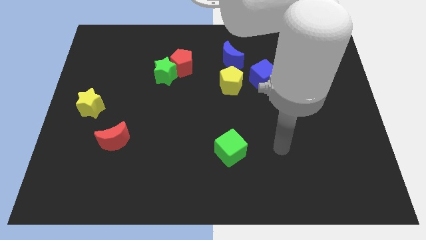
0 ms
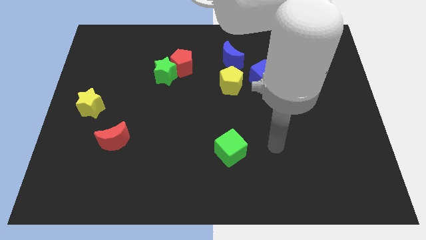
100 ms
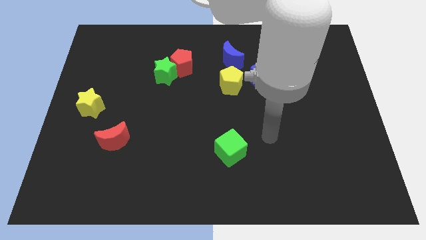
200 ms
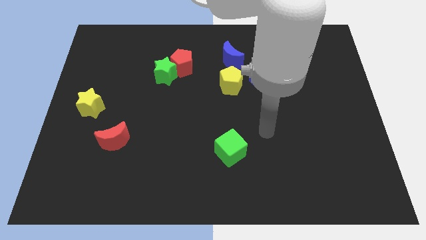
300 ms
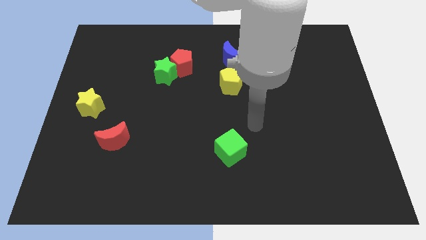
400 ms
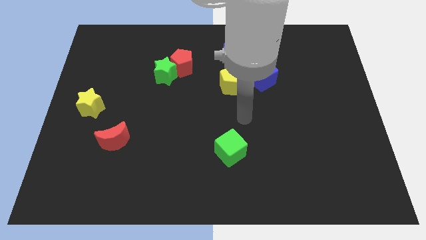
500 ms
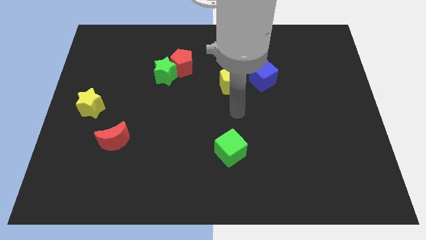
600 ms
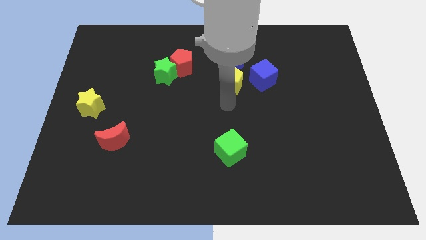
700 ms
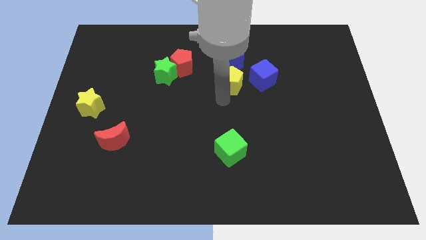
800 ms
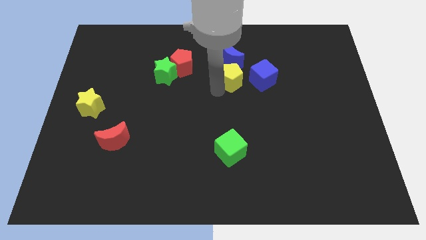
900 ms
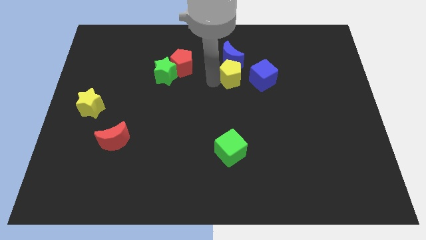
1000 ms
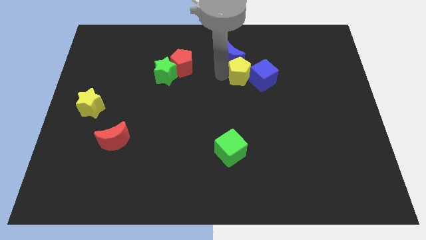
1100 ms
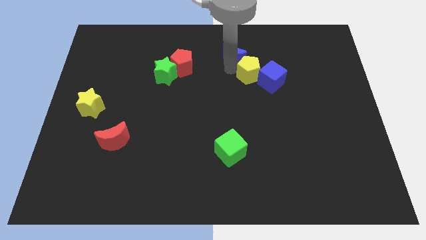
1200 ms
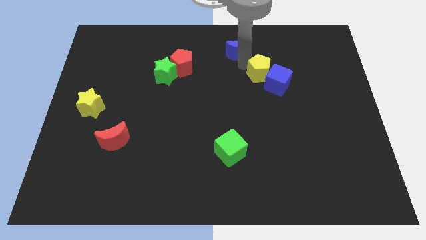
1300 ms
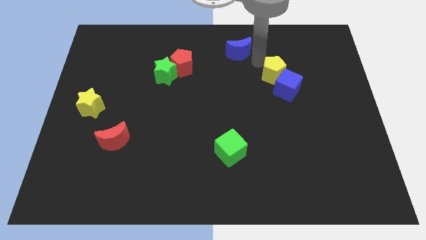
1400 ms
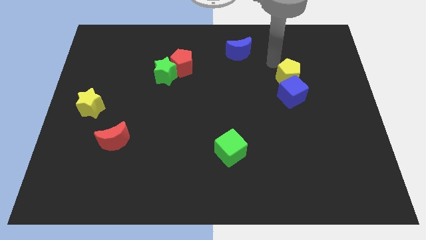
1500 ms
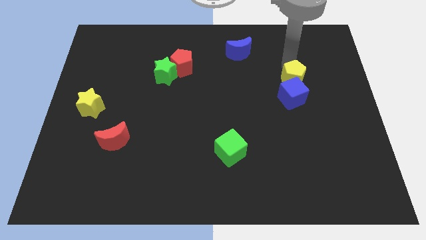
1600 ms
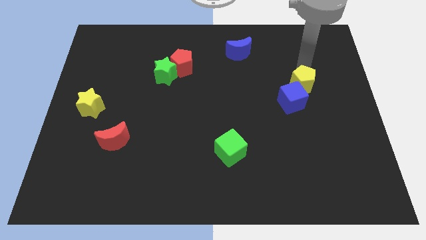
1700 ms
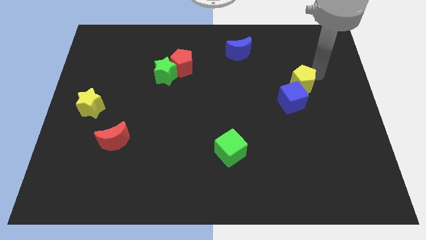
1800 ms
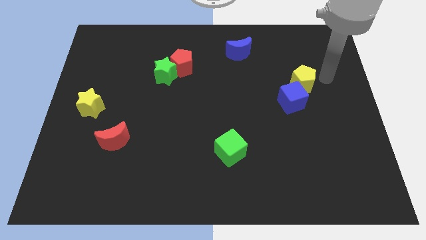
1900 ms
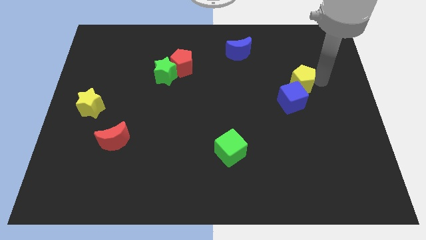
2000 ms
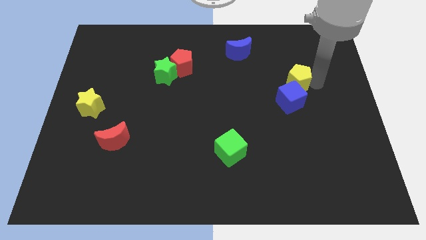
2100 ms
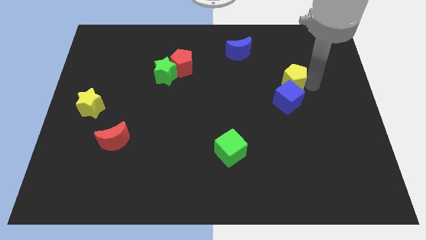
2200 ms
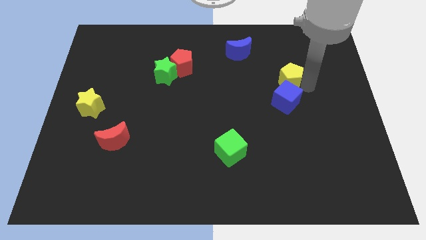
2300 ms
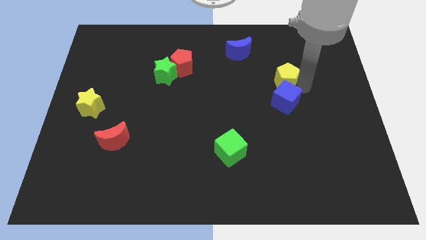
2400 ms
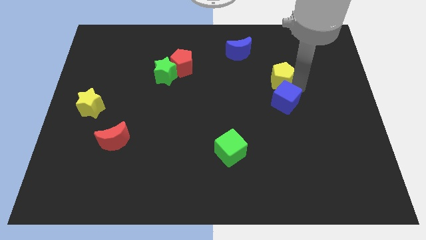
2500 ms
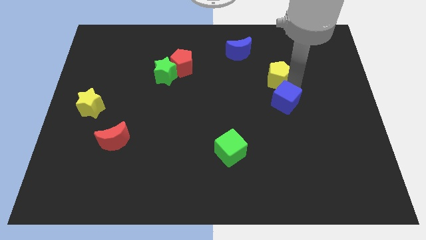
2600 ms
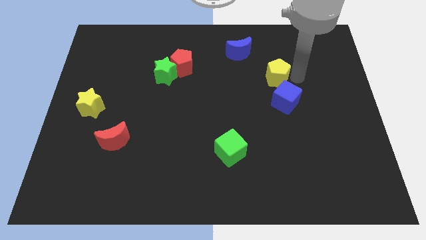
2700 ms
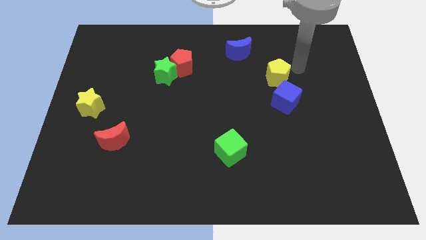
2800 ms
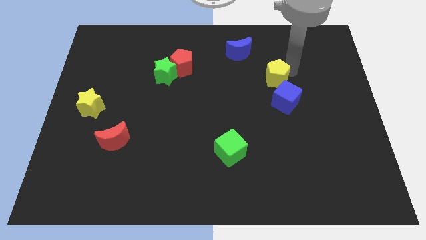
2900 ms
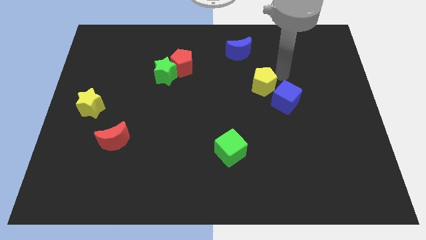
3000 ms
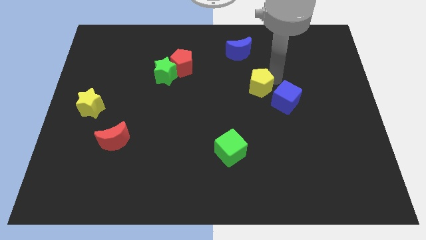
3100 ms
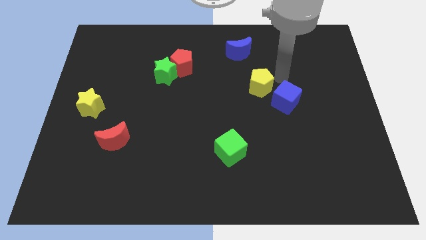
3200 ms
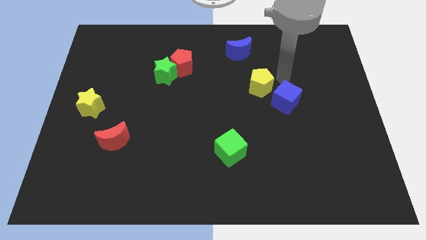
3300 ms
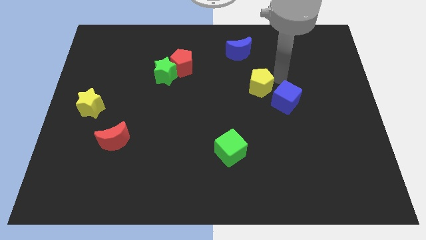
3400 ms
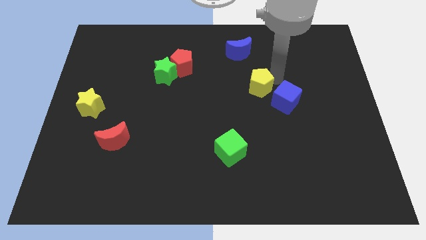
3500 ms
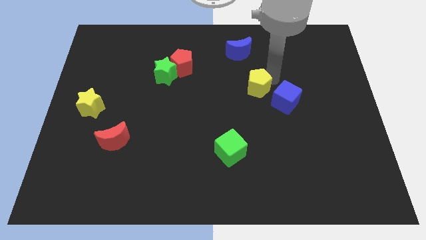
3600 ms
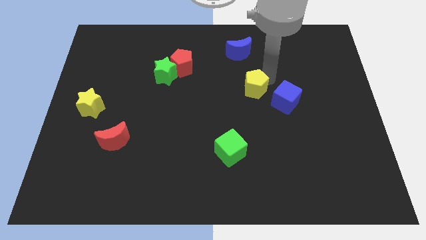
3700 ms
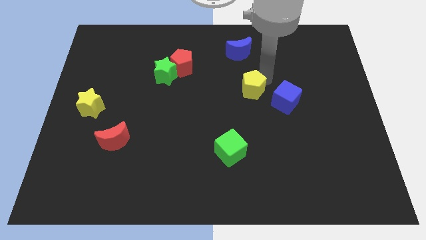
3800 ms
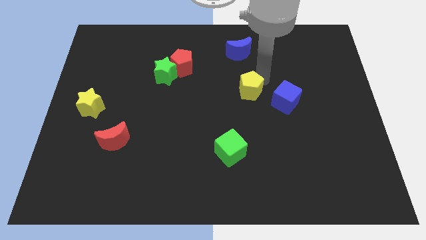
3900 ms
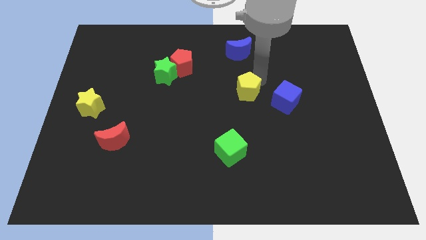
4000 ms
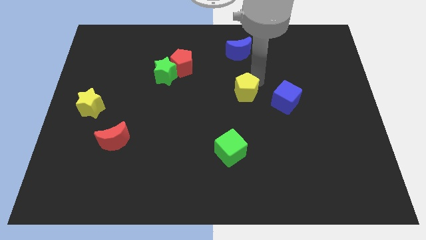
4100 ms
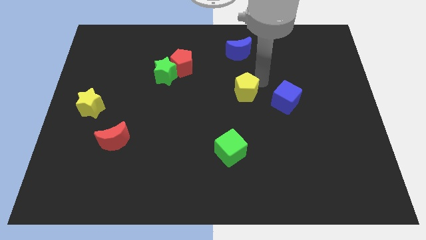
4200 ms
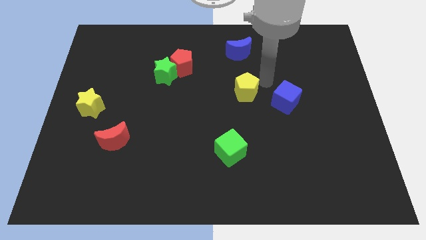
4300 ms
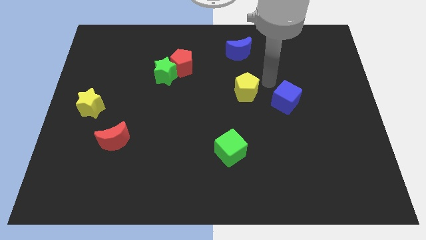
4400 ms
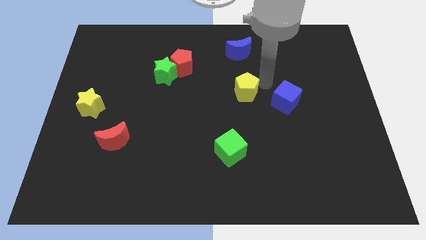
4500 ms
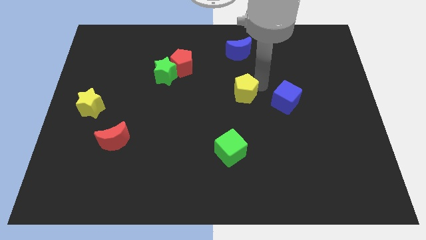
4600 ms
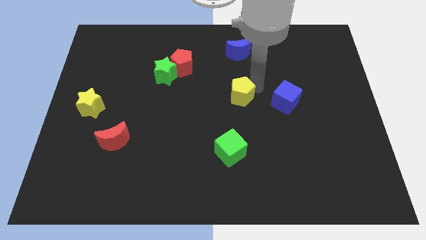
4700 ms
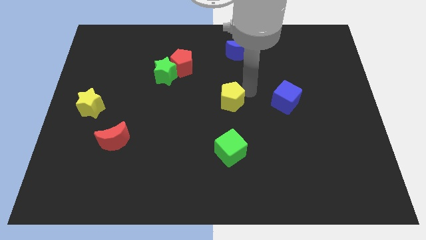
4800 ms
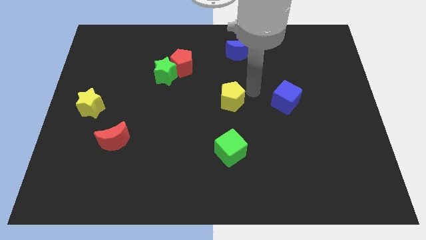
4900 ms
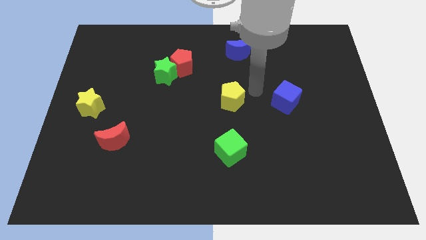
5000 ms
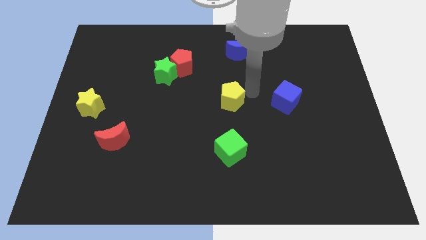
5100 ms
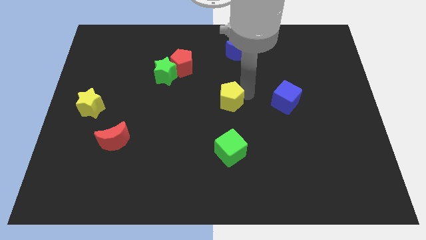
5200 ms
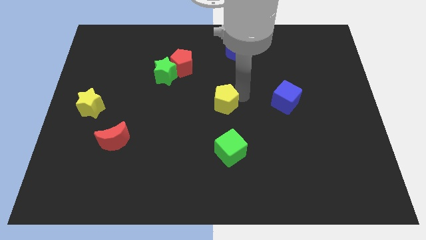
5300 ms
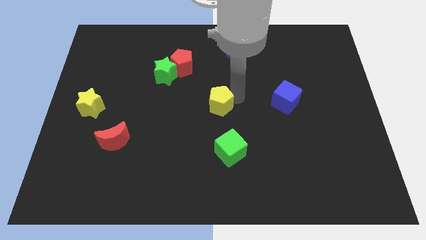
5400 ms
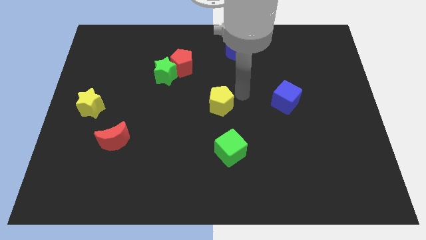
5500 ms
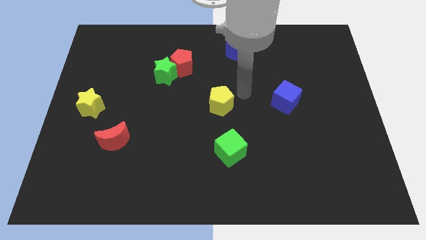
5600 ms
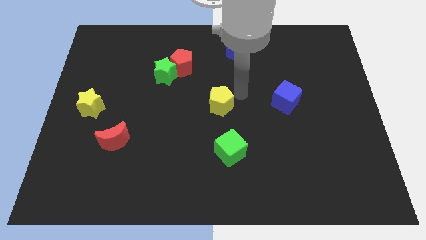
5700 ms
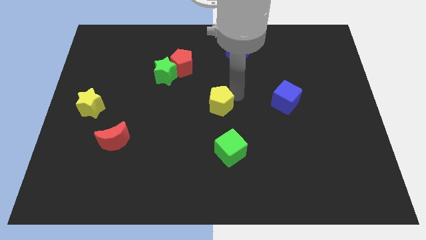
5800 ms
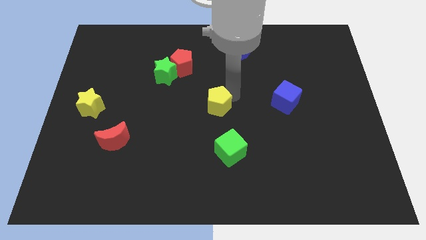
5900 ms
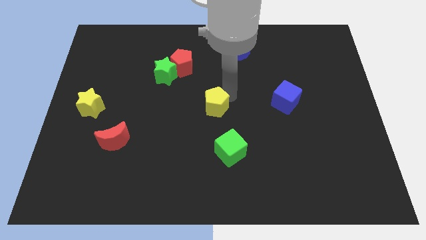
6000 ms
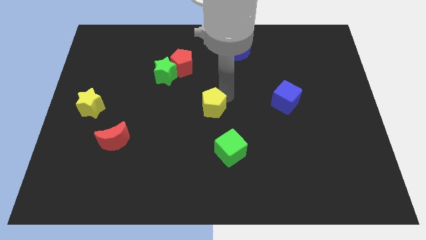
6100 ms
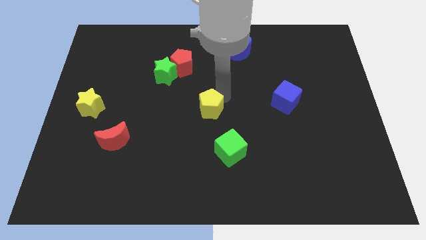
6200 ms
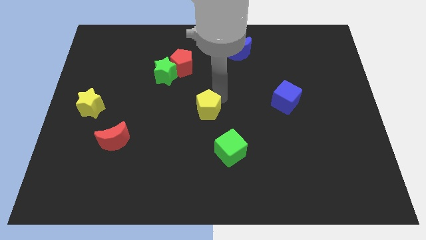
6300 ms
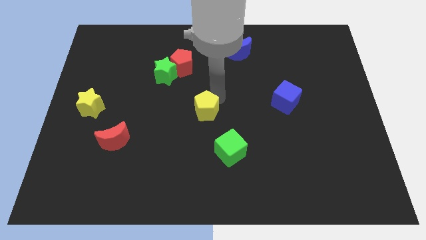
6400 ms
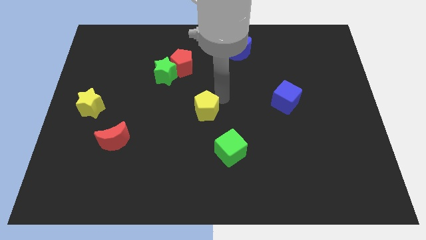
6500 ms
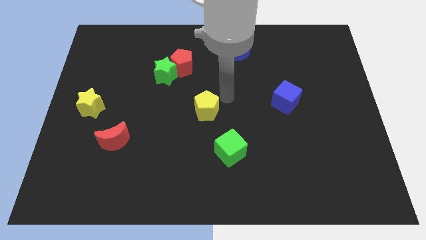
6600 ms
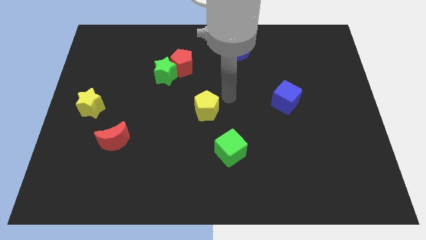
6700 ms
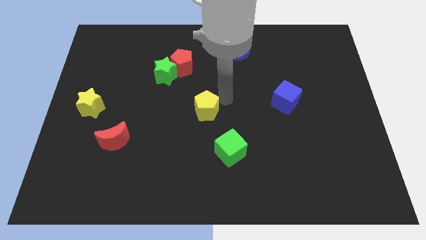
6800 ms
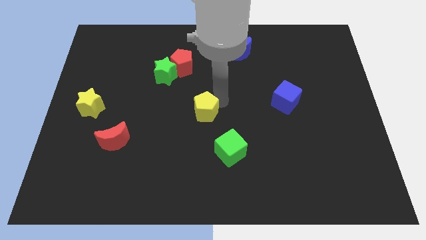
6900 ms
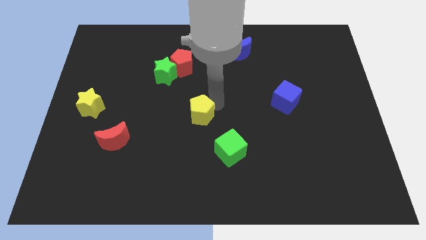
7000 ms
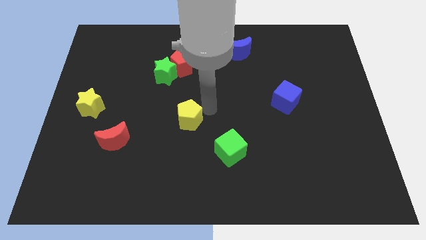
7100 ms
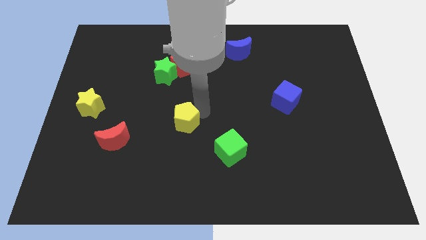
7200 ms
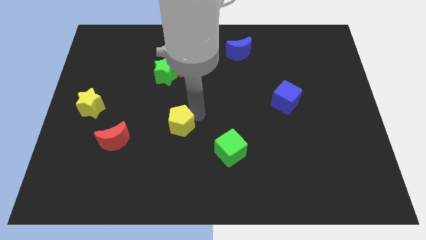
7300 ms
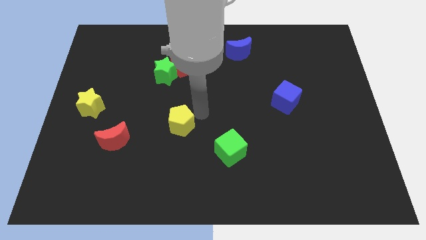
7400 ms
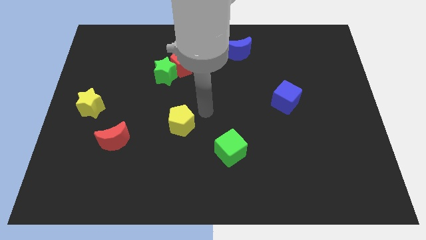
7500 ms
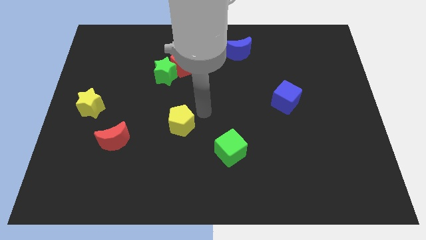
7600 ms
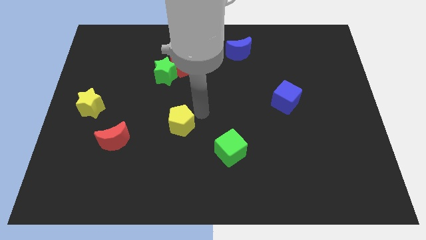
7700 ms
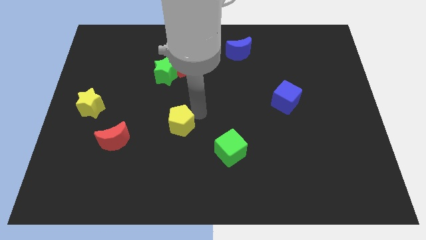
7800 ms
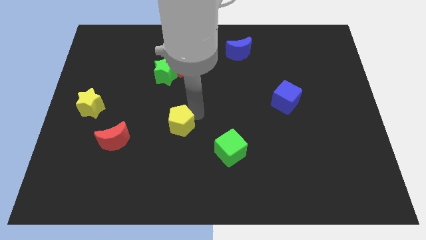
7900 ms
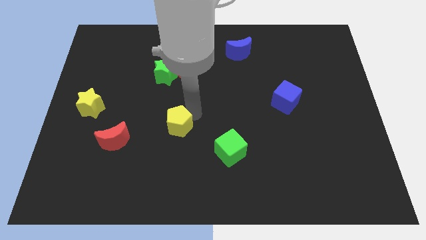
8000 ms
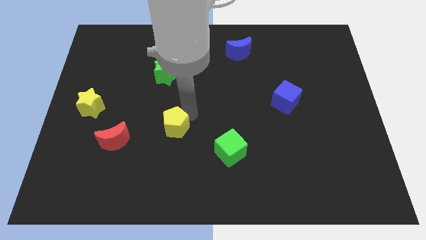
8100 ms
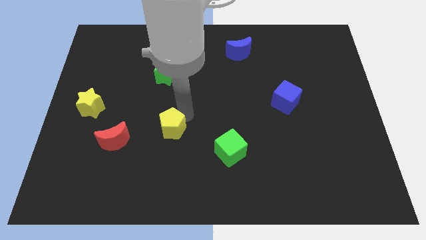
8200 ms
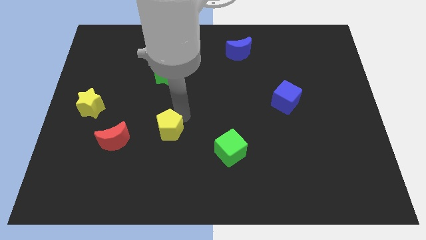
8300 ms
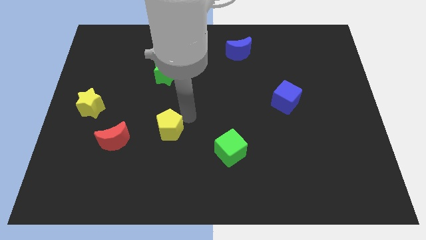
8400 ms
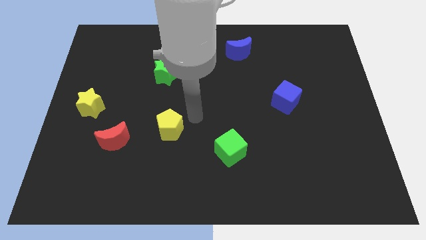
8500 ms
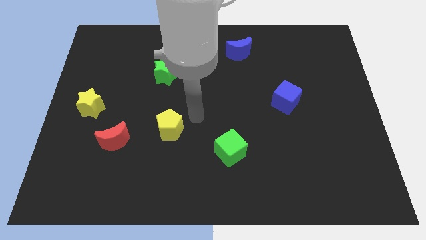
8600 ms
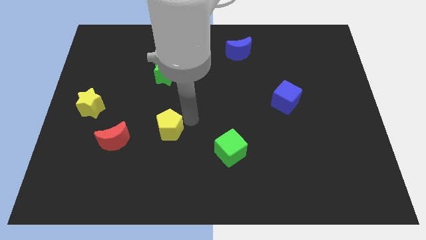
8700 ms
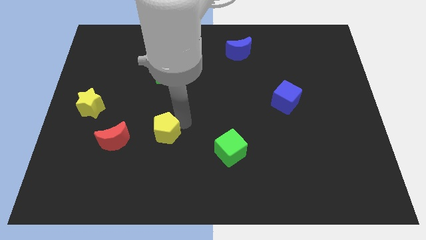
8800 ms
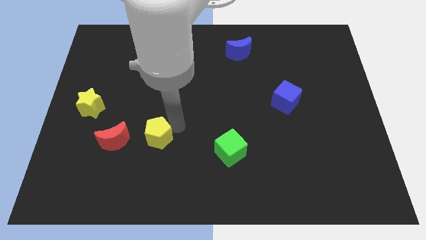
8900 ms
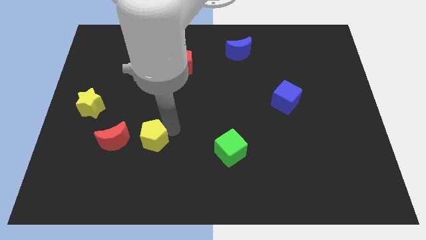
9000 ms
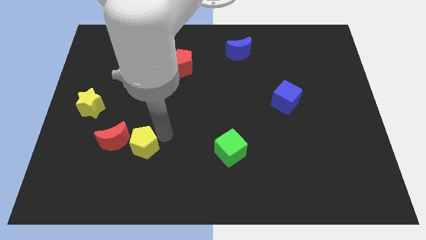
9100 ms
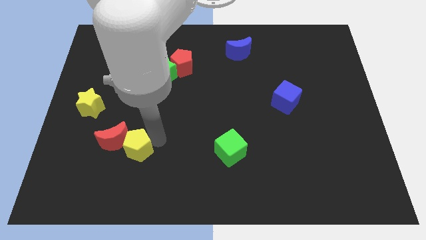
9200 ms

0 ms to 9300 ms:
put the yellow pentagon close to the red moon
